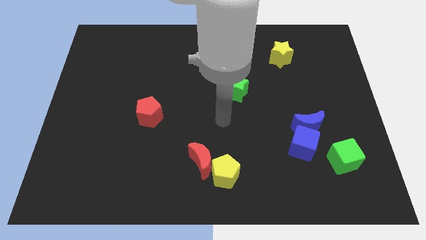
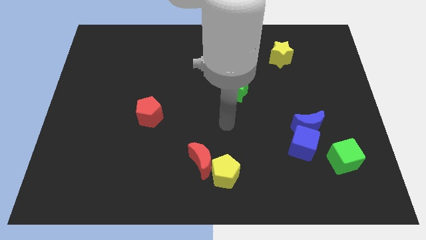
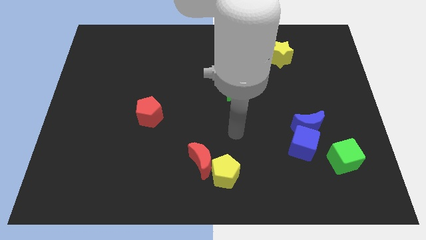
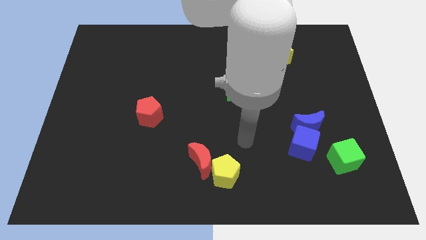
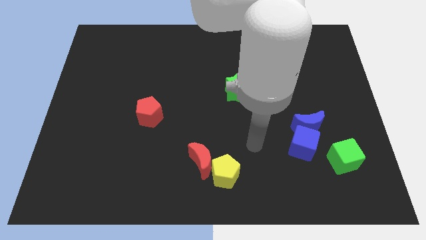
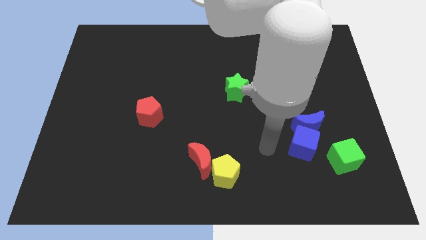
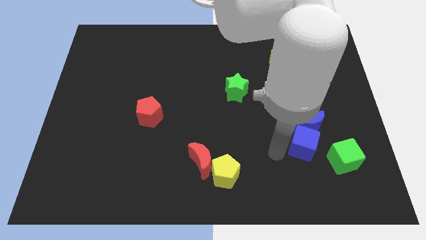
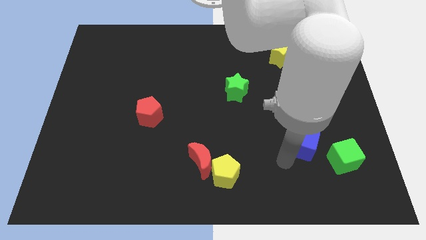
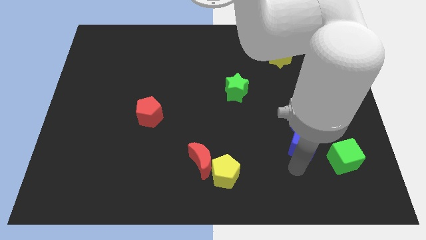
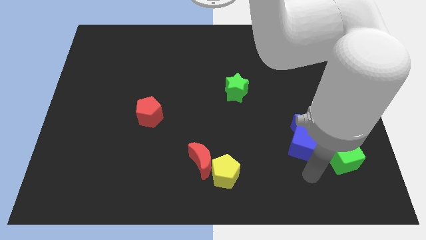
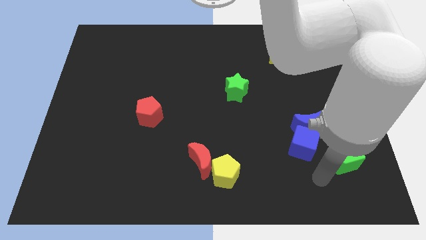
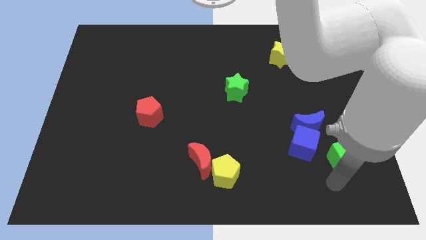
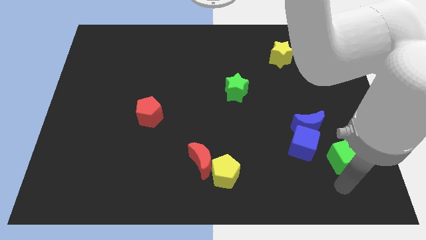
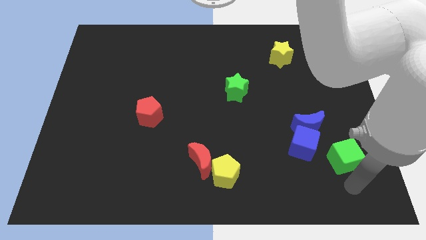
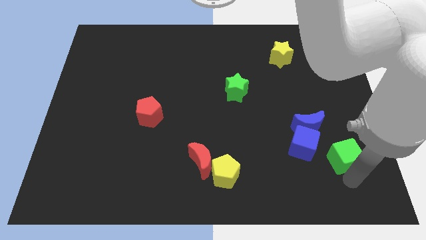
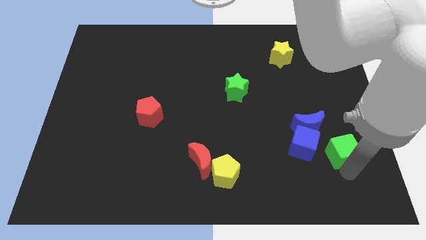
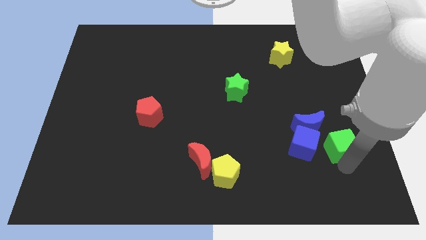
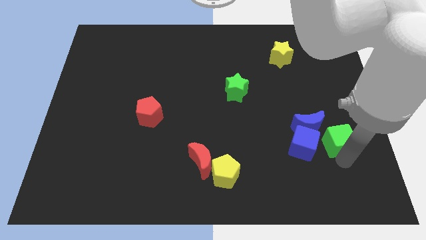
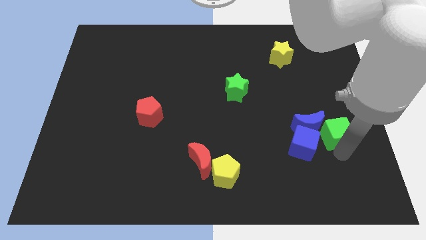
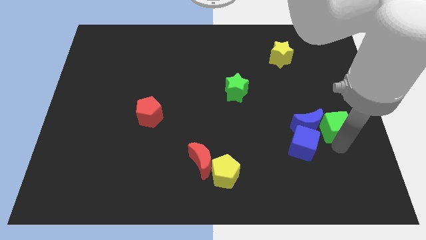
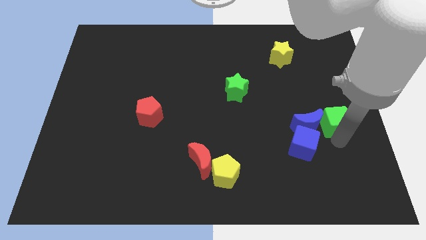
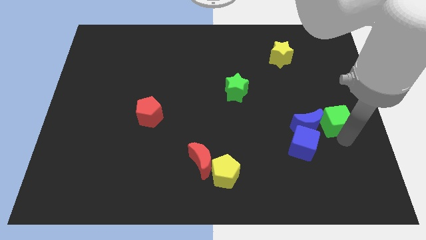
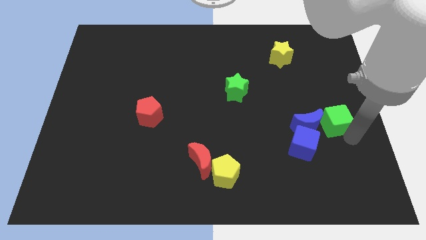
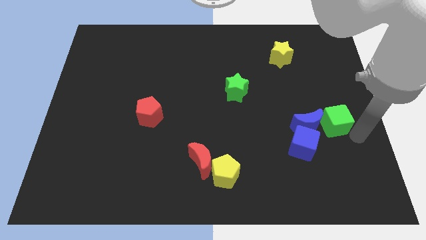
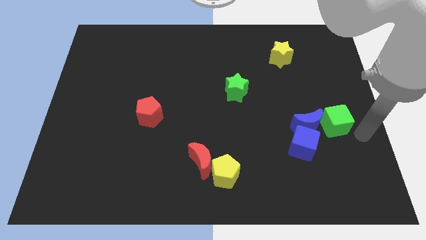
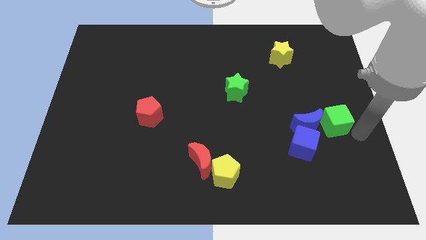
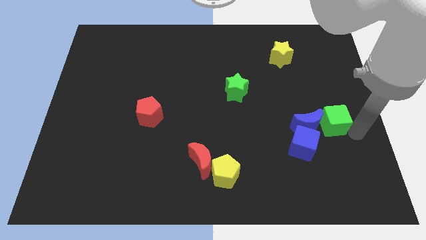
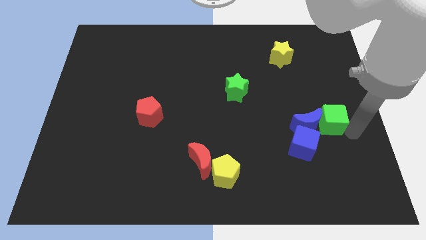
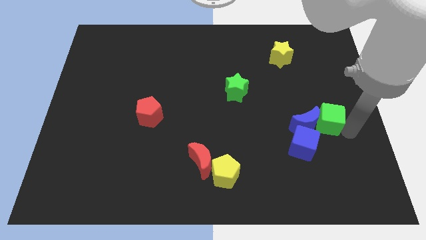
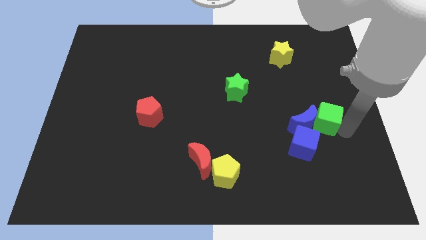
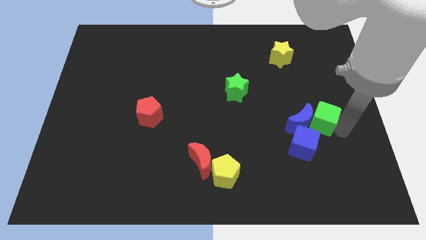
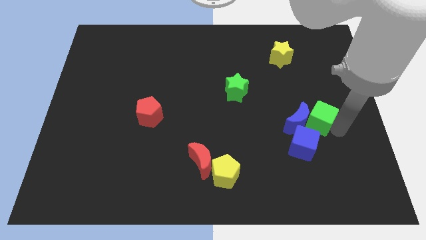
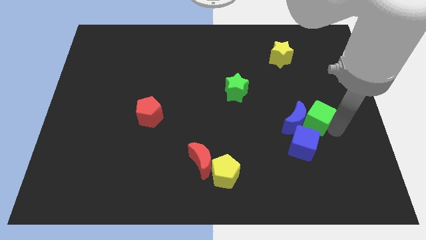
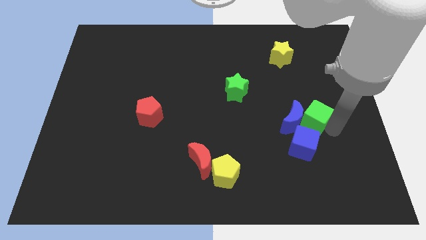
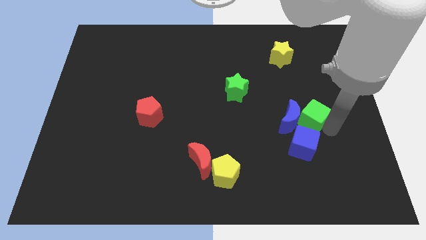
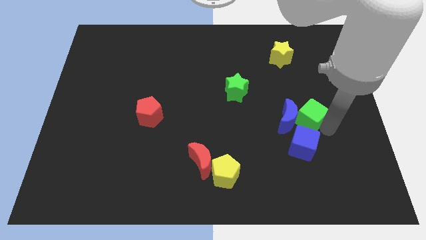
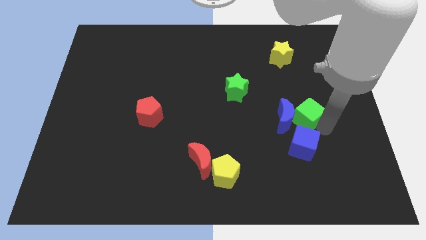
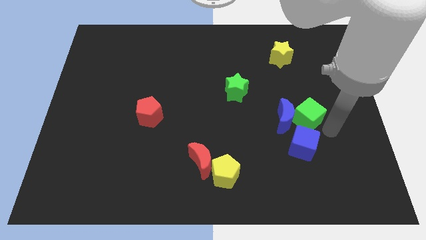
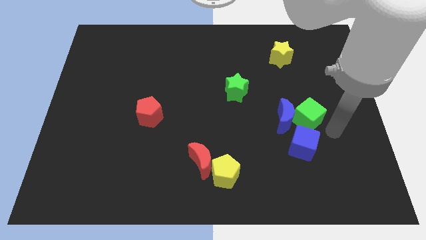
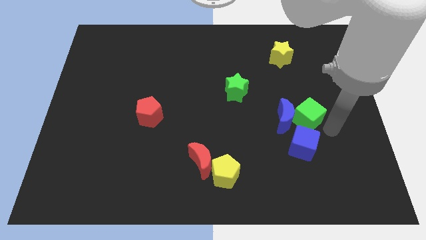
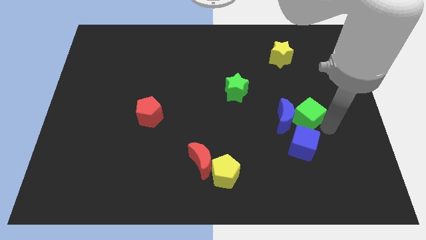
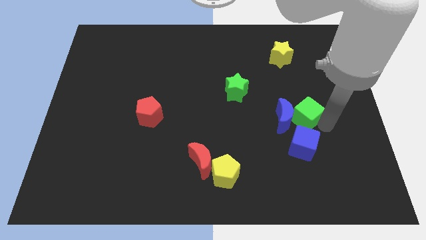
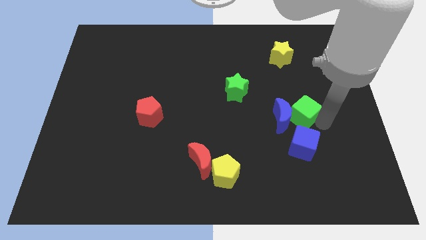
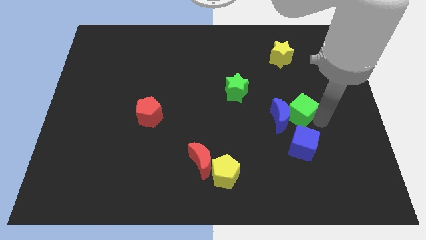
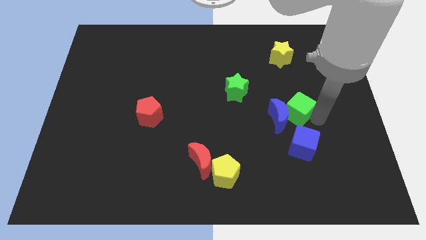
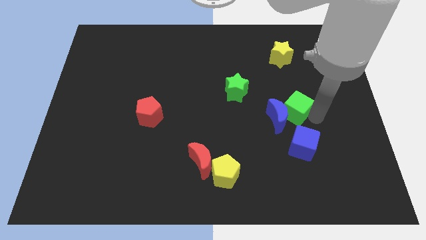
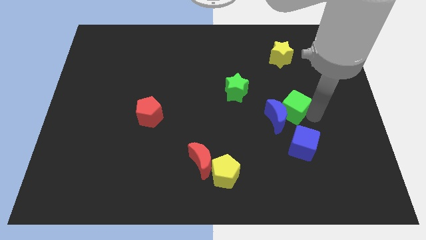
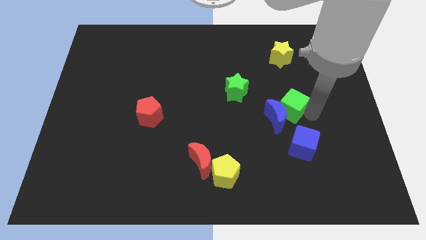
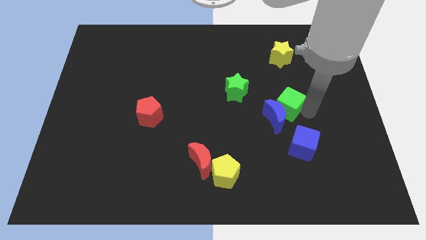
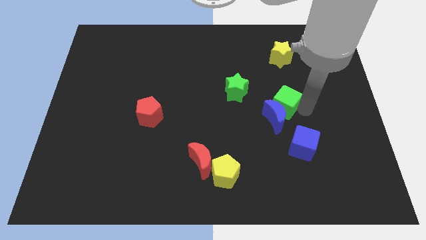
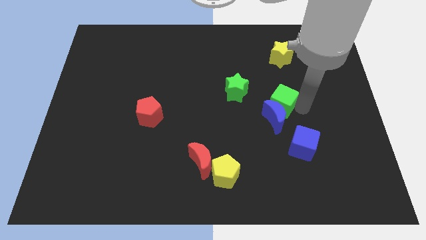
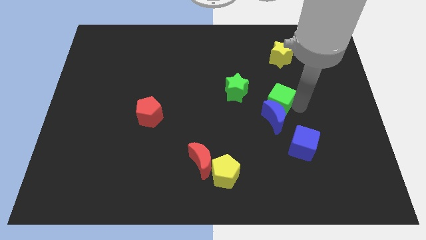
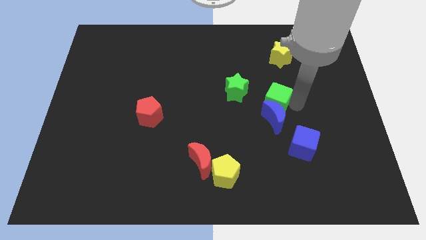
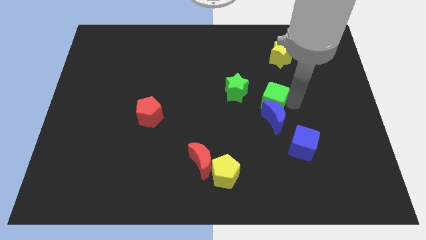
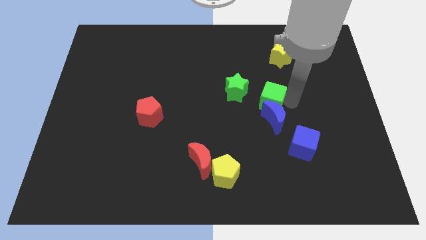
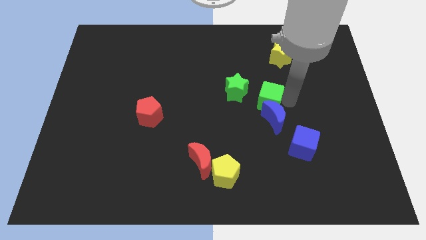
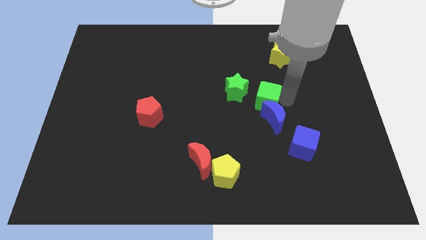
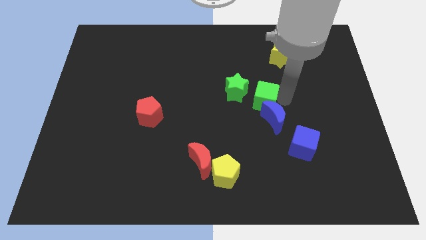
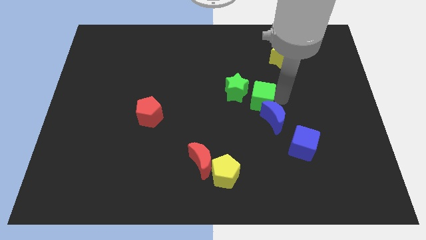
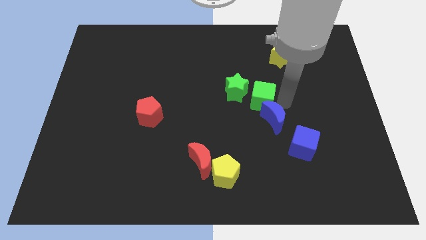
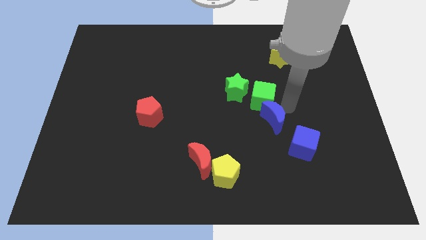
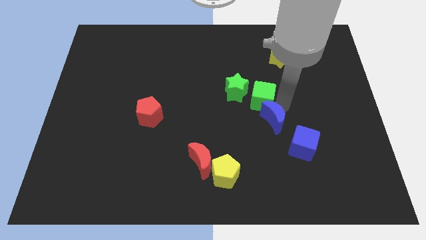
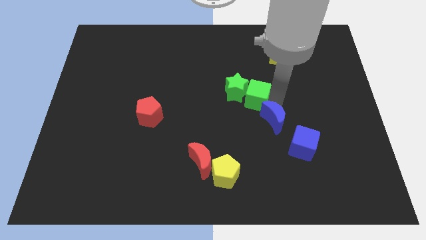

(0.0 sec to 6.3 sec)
push the green cube to the green star

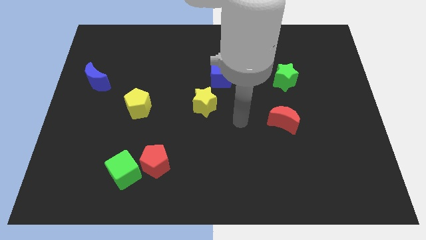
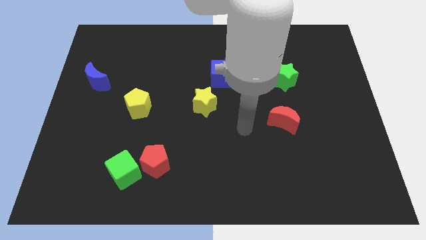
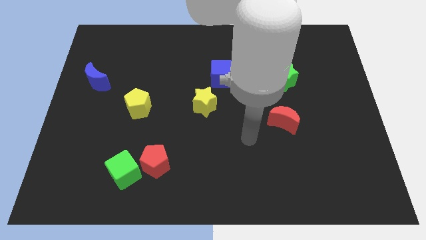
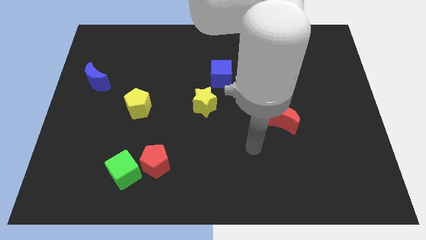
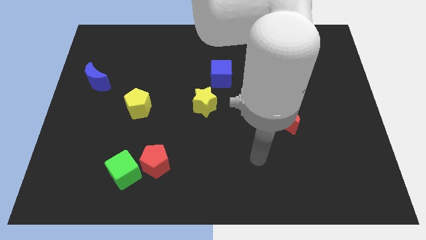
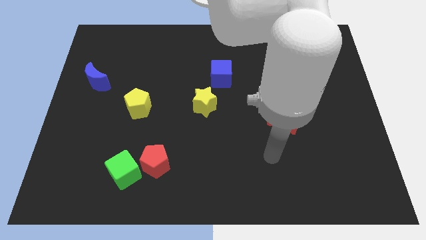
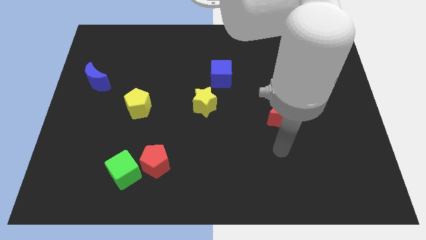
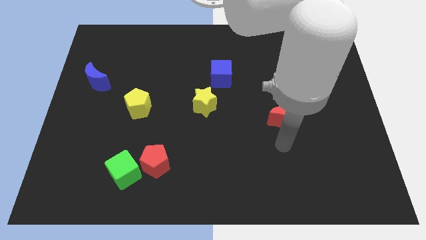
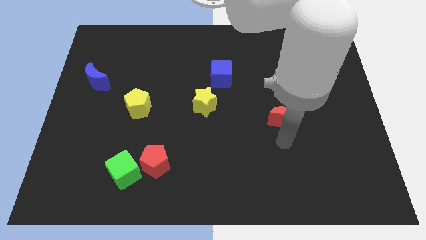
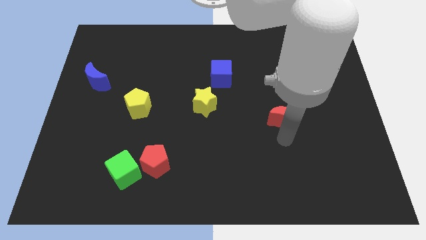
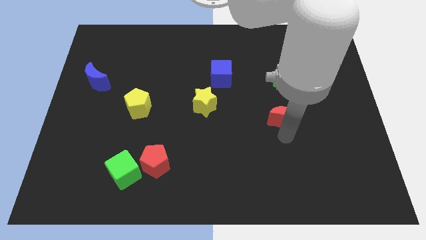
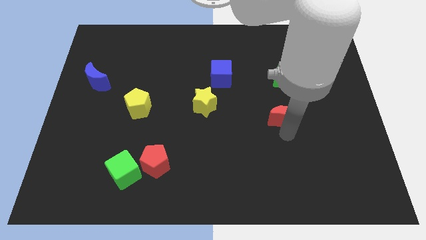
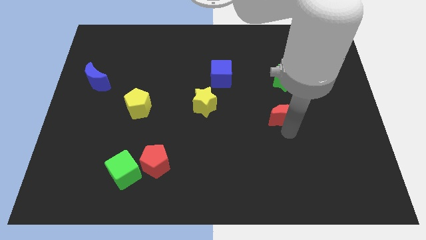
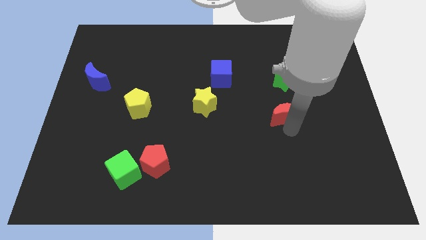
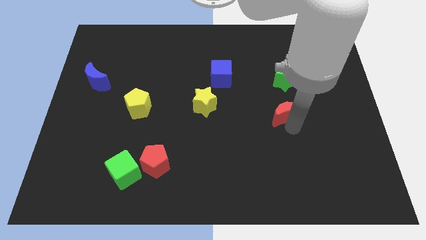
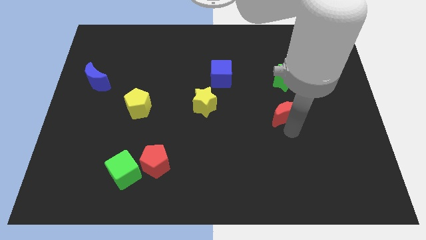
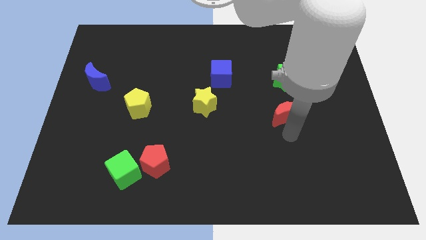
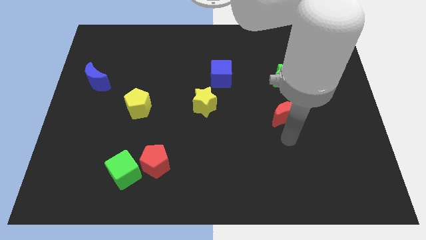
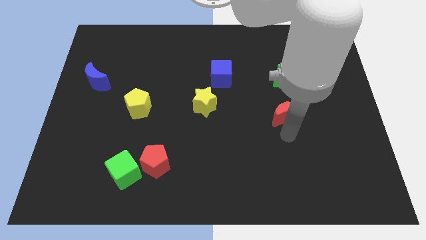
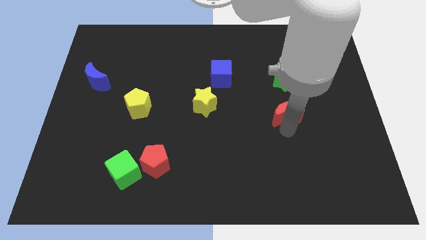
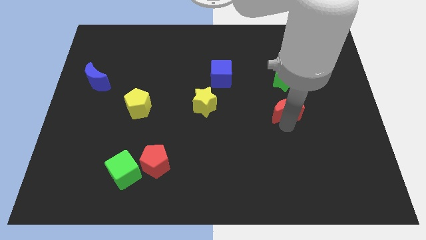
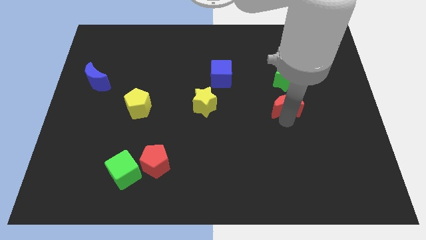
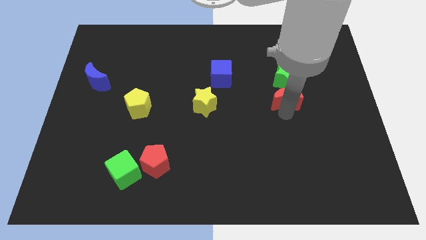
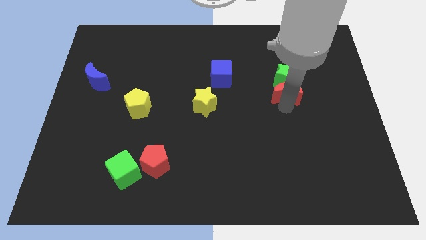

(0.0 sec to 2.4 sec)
move the red moon to the green star
